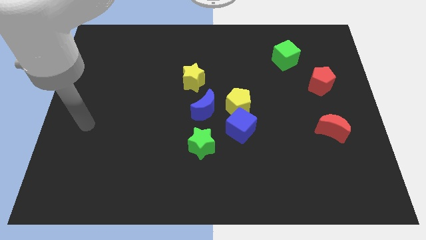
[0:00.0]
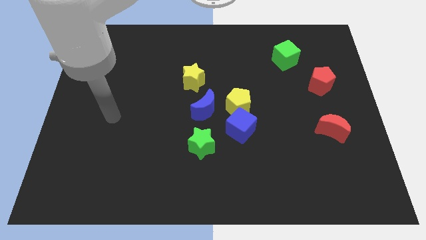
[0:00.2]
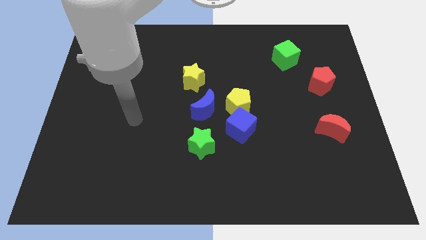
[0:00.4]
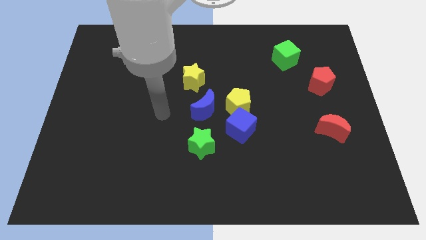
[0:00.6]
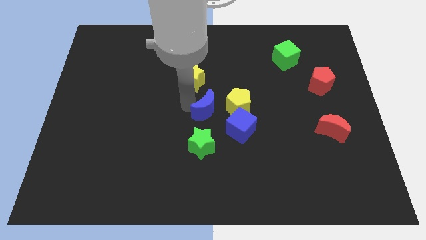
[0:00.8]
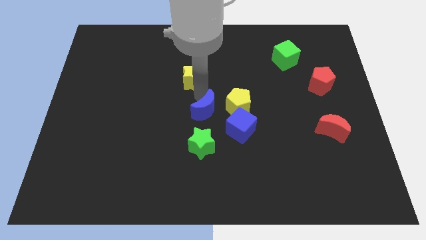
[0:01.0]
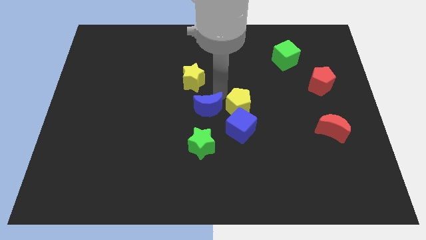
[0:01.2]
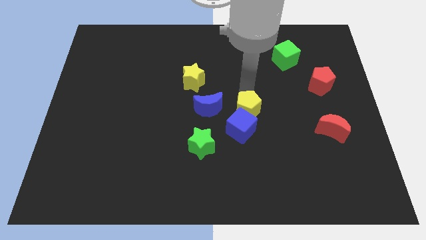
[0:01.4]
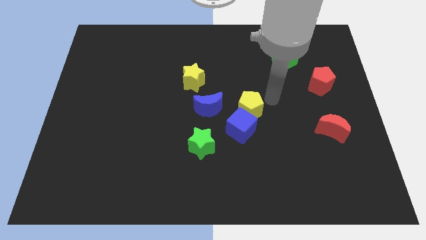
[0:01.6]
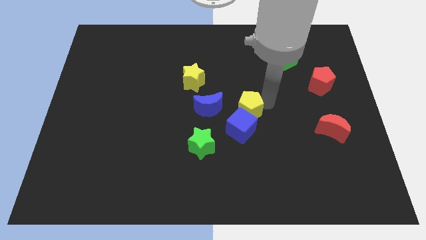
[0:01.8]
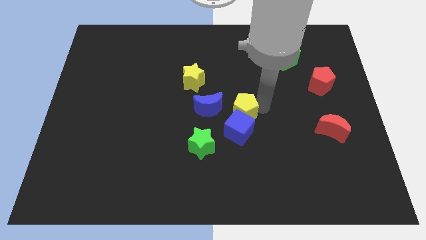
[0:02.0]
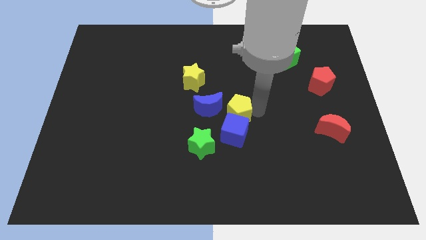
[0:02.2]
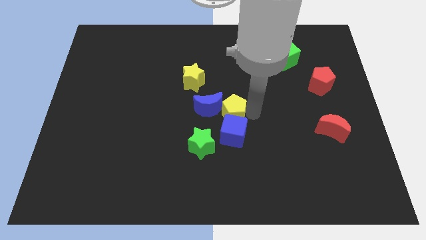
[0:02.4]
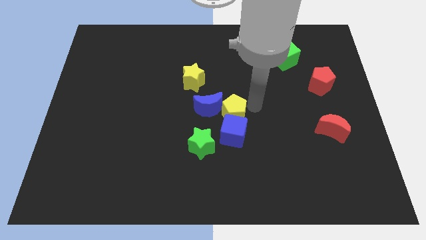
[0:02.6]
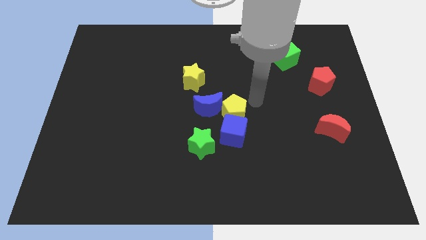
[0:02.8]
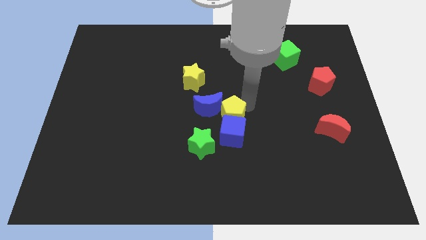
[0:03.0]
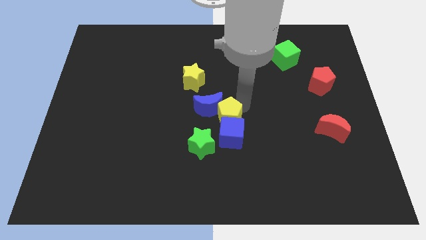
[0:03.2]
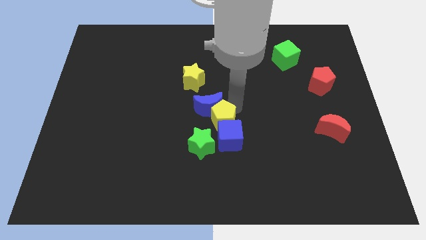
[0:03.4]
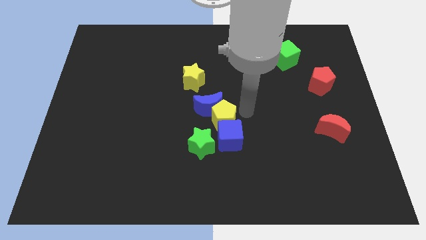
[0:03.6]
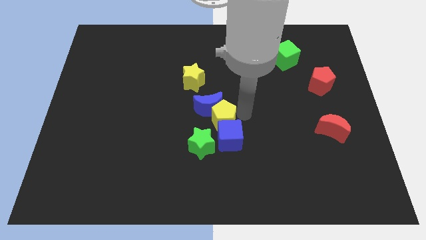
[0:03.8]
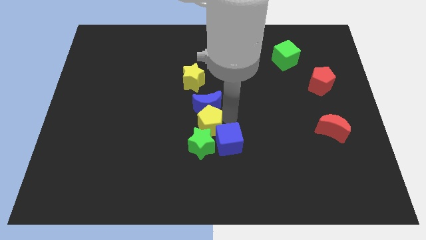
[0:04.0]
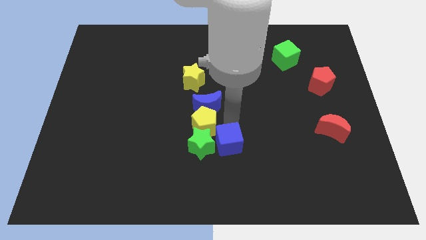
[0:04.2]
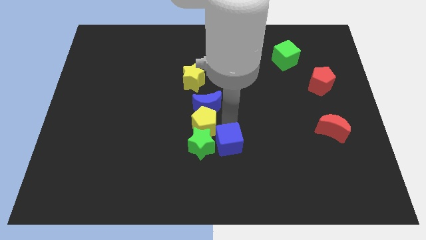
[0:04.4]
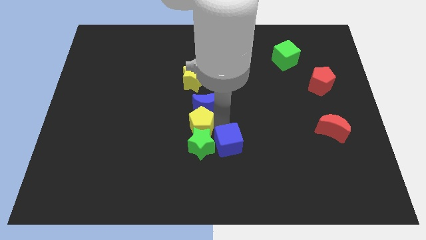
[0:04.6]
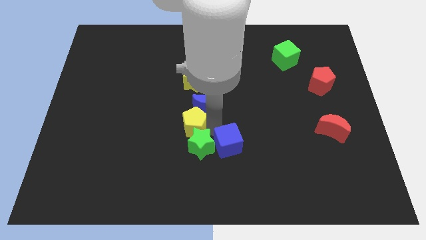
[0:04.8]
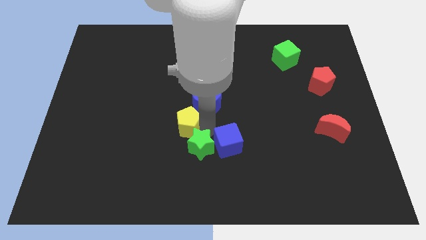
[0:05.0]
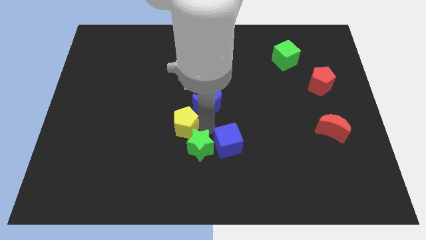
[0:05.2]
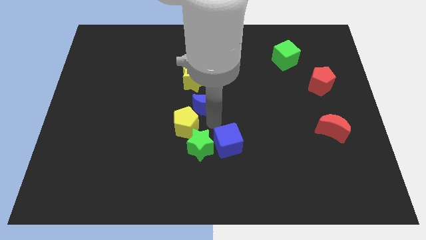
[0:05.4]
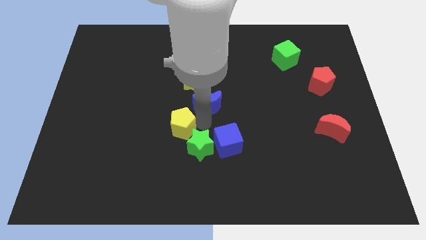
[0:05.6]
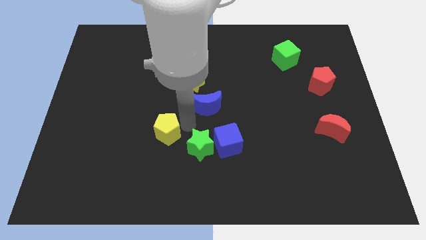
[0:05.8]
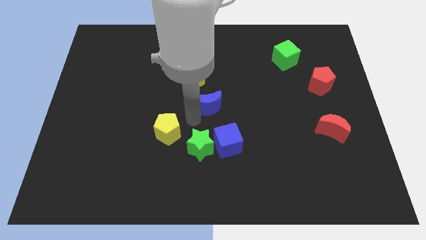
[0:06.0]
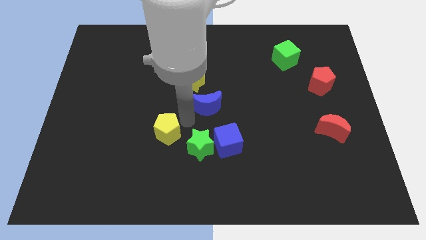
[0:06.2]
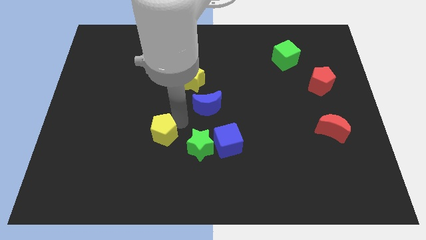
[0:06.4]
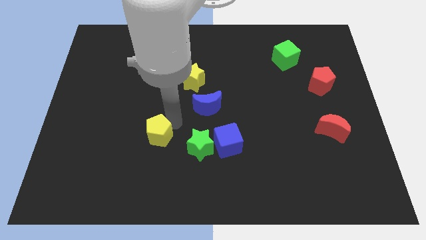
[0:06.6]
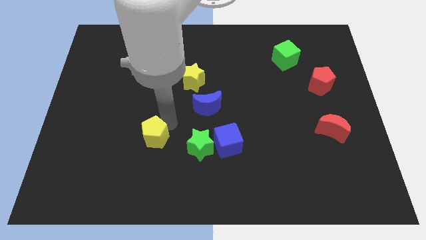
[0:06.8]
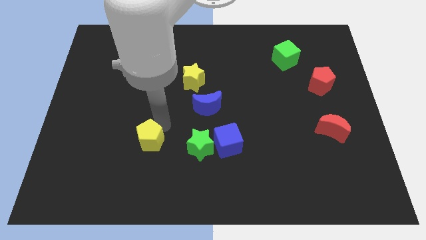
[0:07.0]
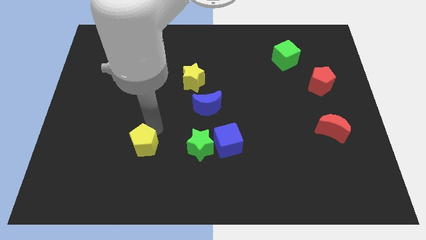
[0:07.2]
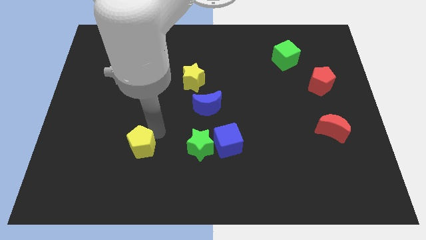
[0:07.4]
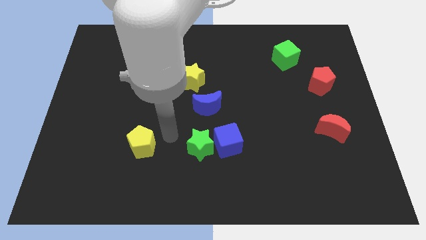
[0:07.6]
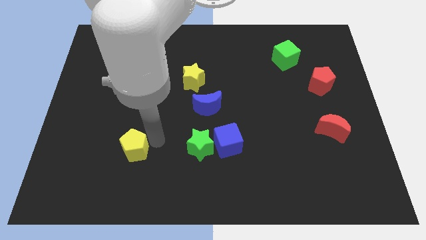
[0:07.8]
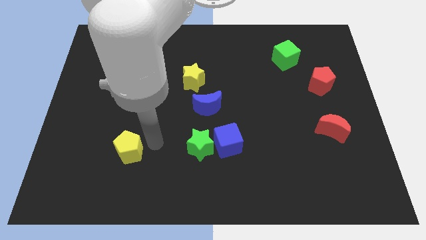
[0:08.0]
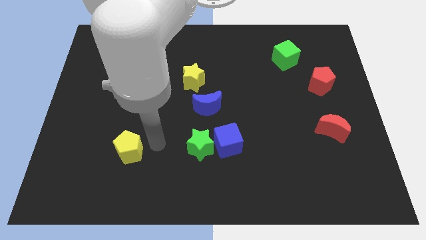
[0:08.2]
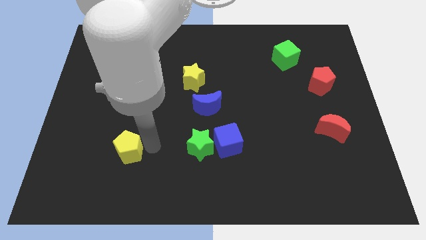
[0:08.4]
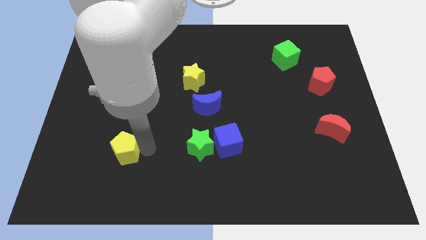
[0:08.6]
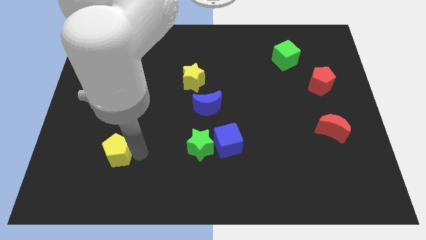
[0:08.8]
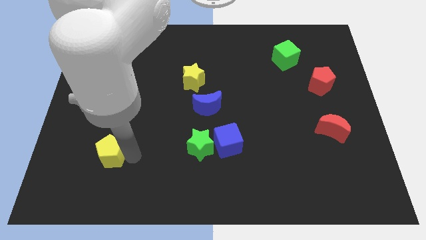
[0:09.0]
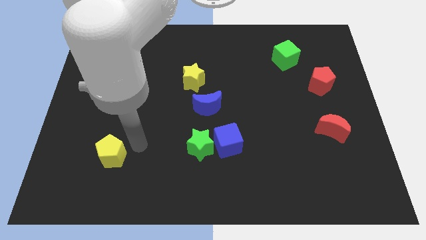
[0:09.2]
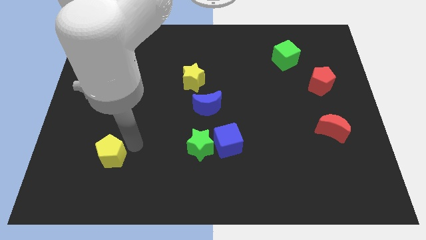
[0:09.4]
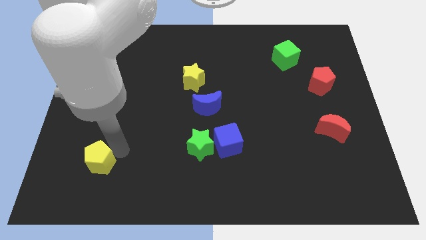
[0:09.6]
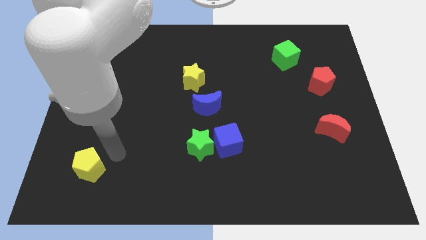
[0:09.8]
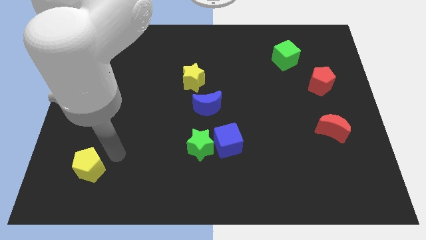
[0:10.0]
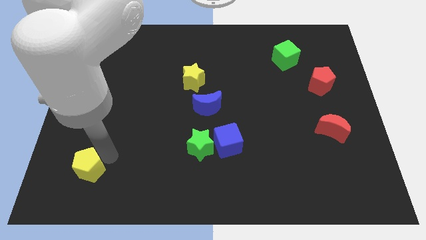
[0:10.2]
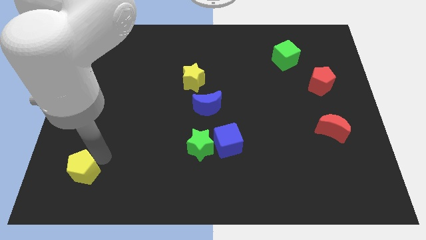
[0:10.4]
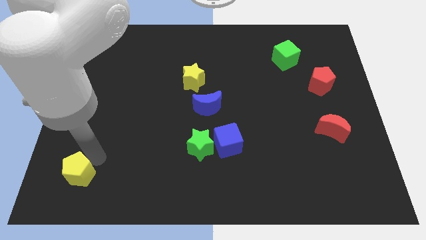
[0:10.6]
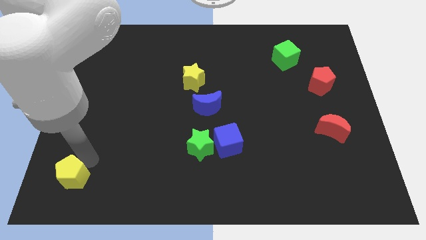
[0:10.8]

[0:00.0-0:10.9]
push the yellow pentagon to the bottom left corner
